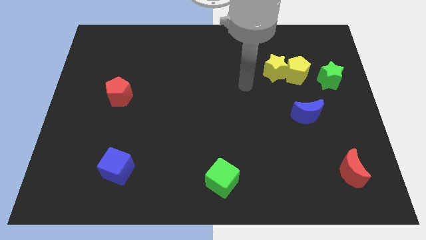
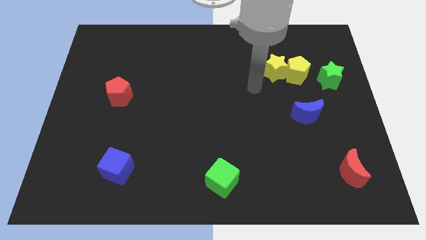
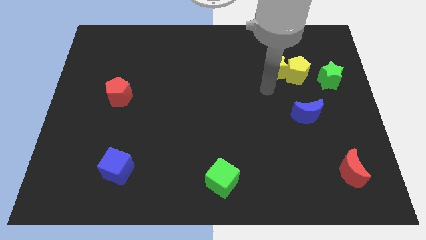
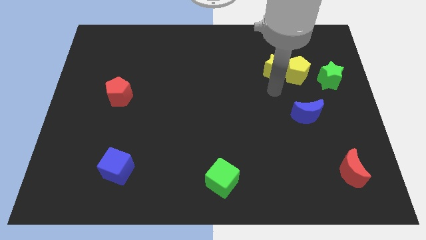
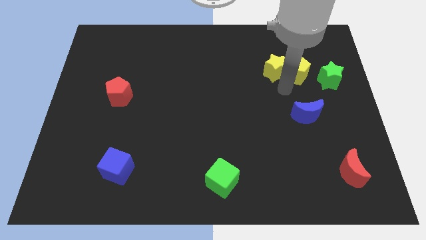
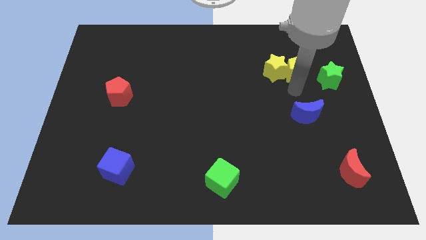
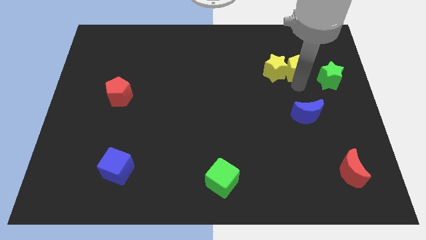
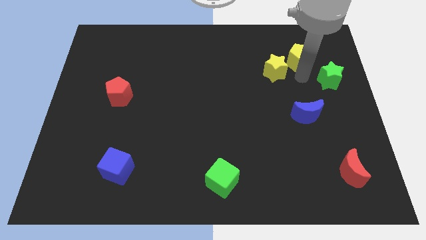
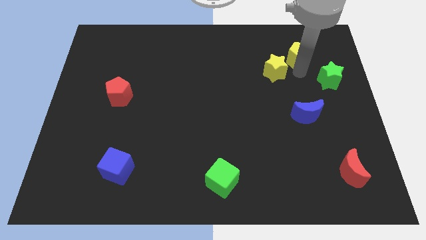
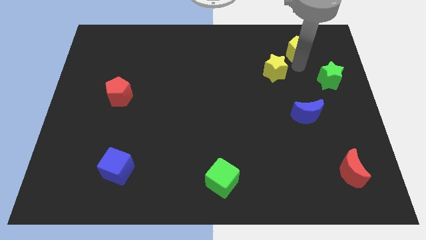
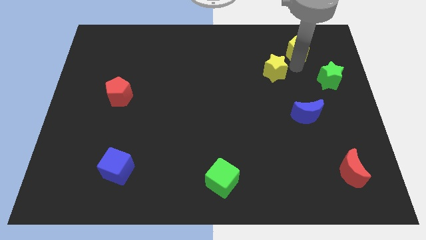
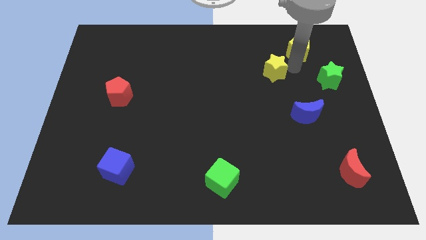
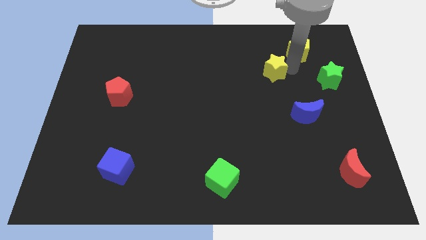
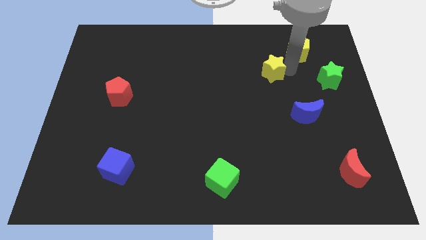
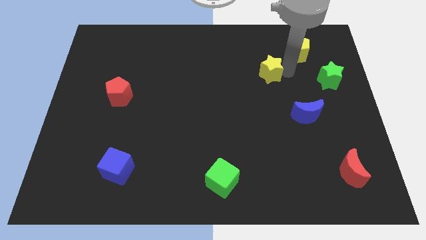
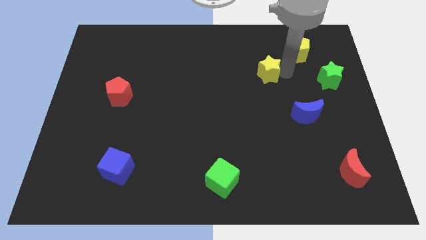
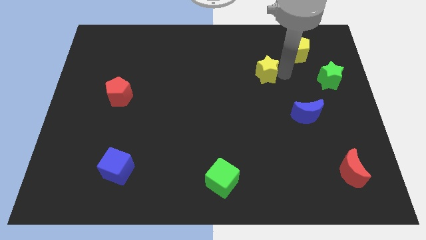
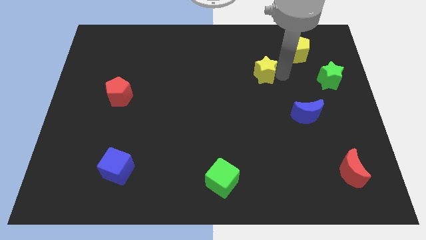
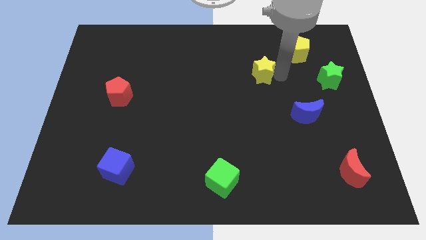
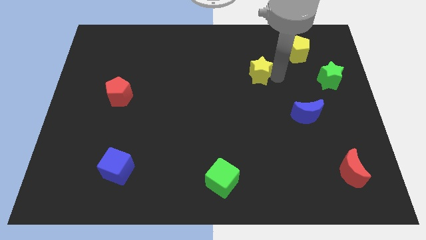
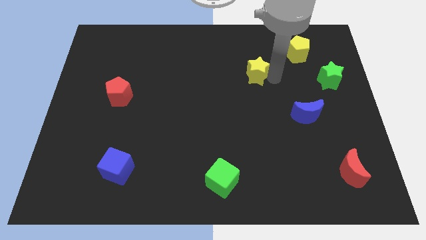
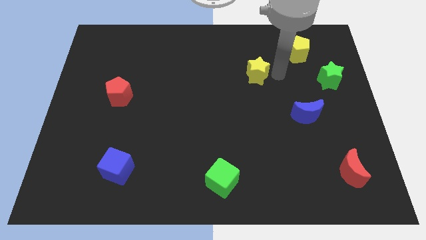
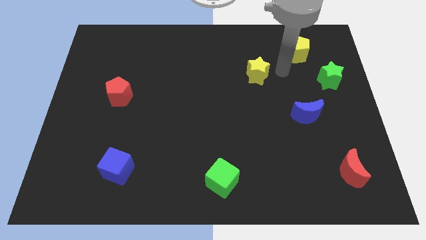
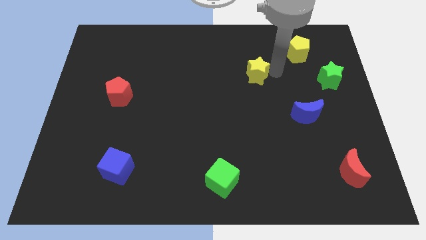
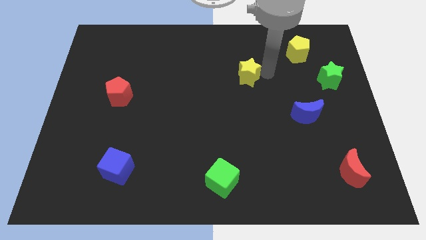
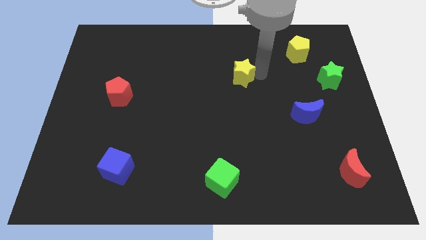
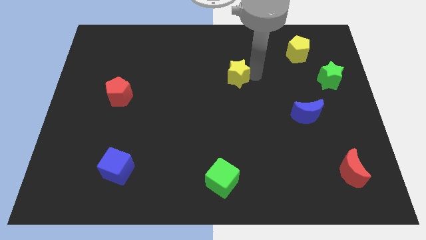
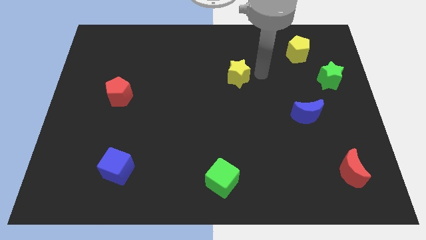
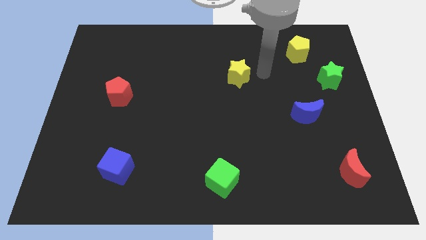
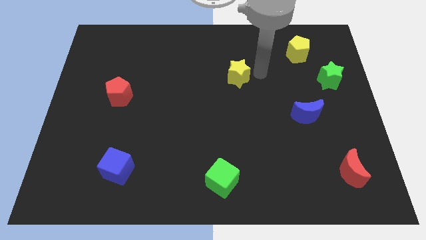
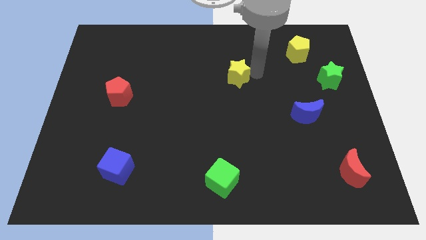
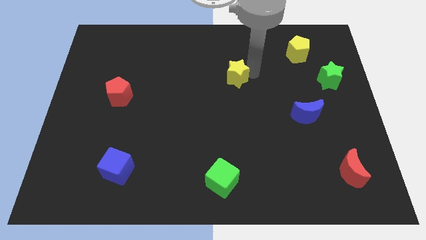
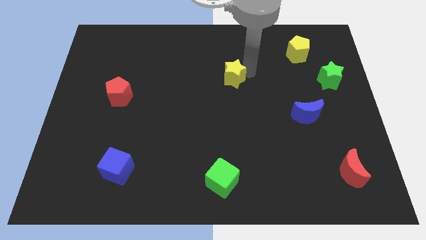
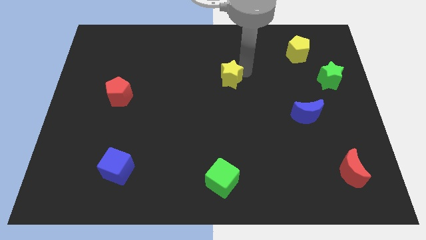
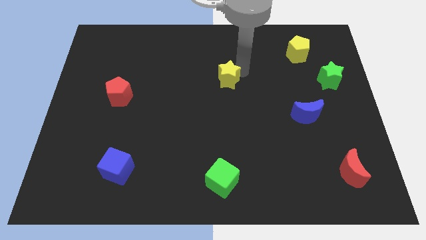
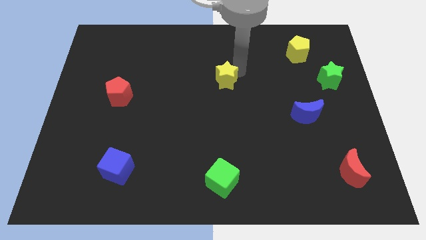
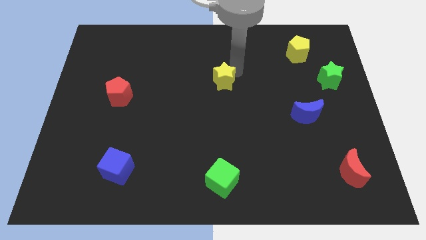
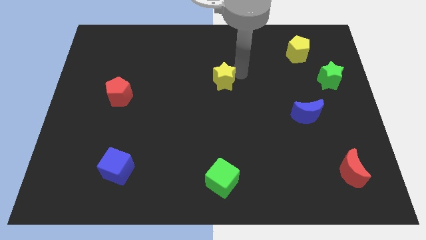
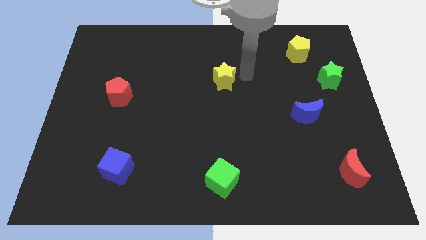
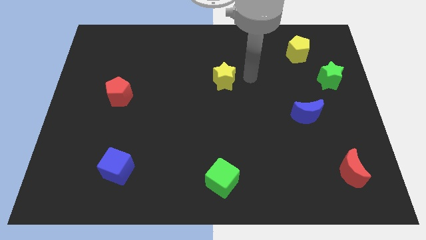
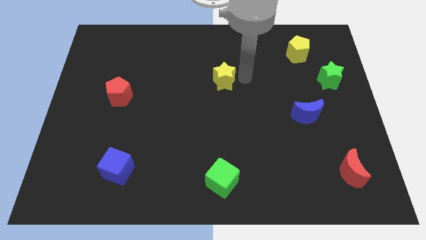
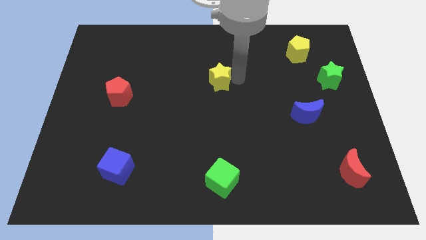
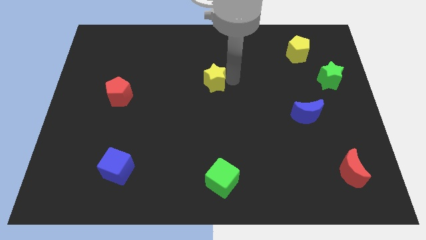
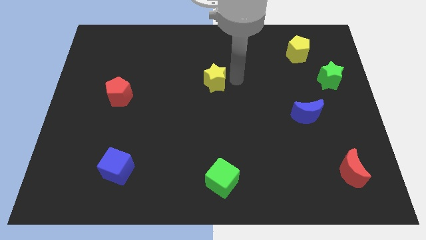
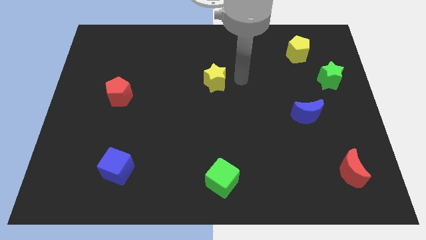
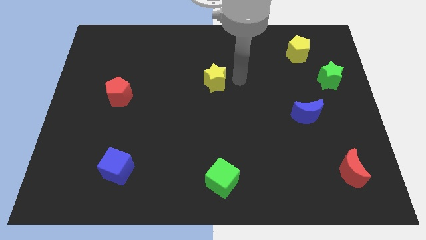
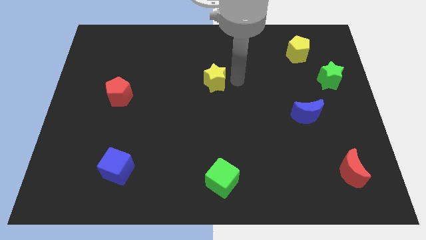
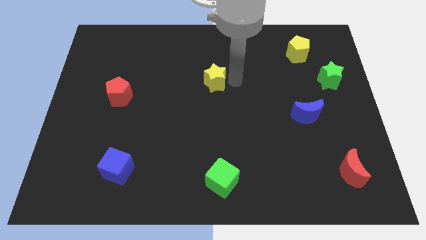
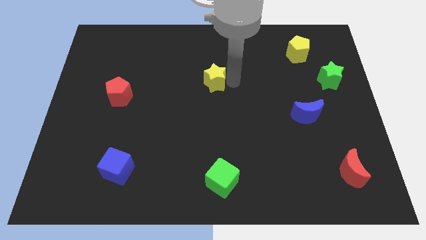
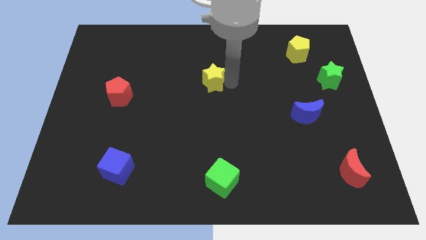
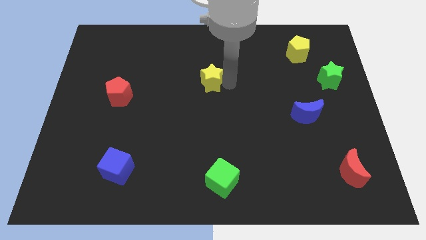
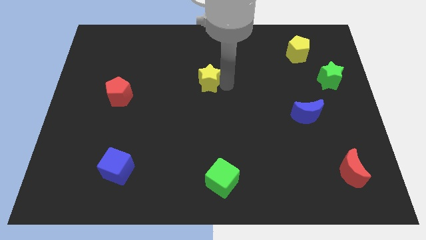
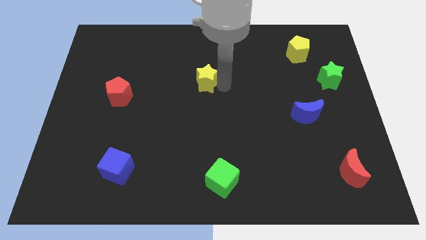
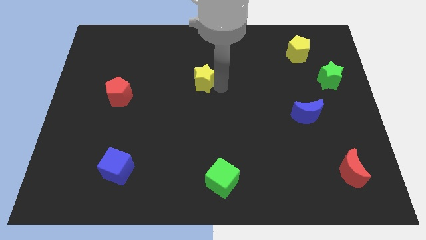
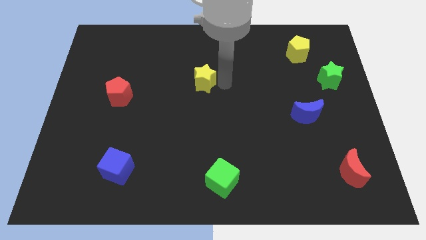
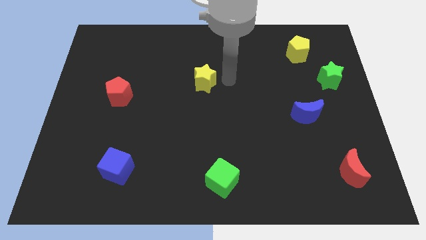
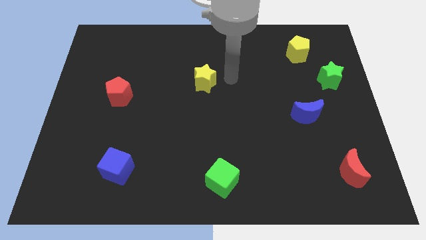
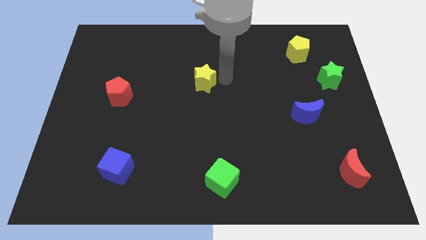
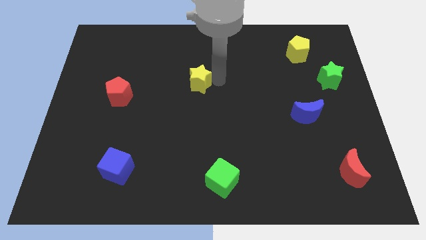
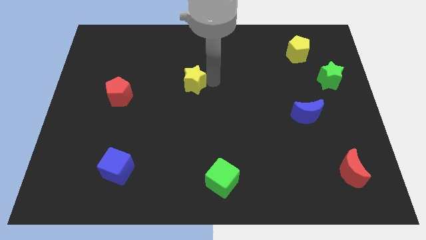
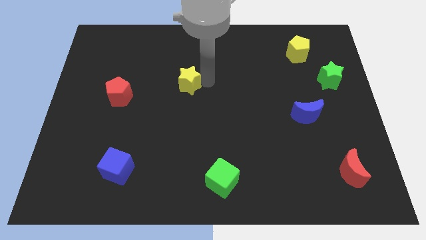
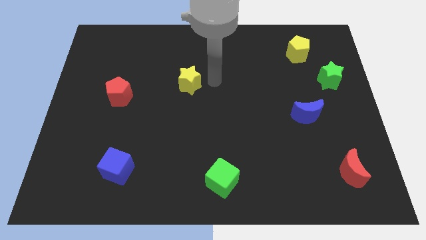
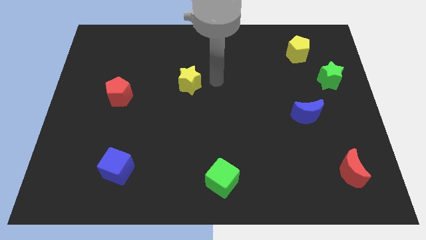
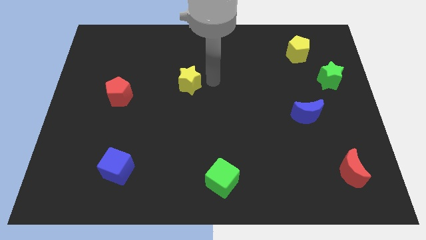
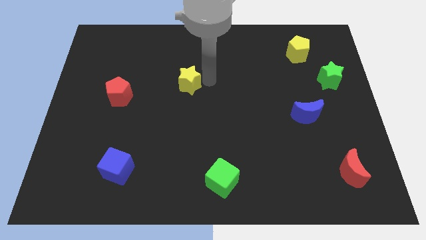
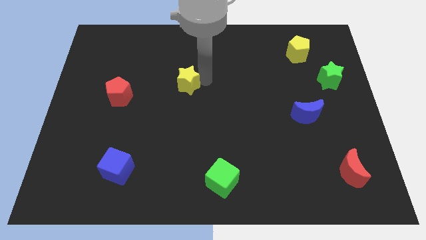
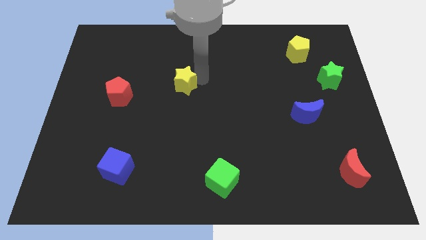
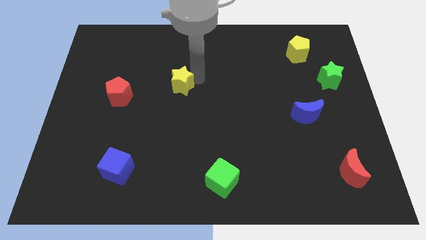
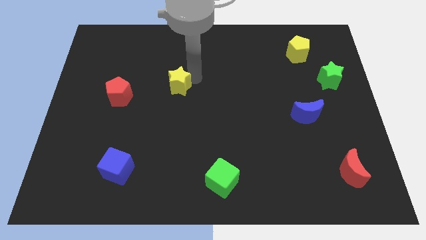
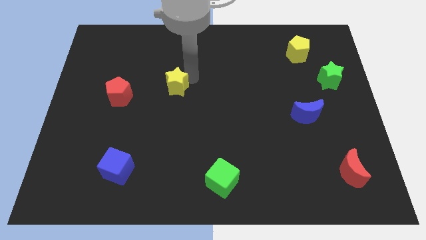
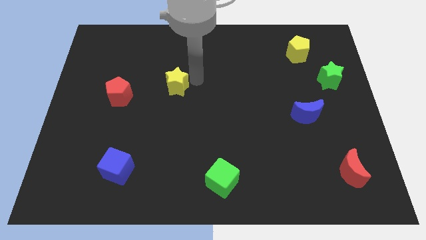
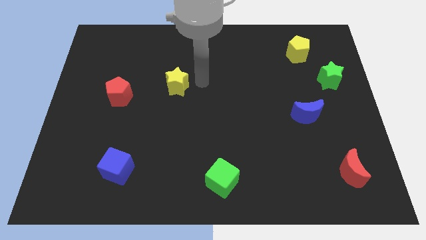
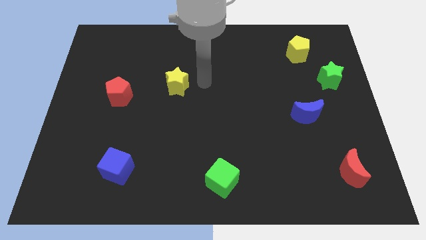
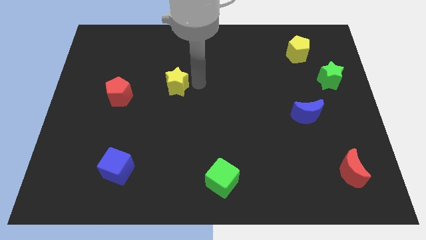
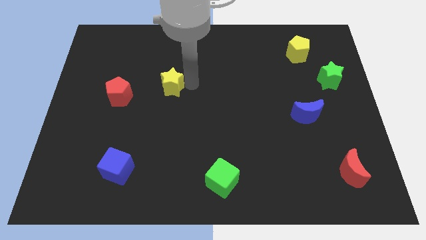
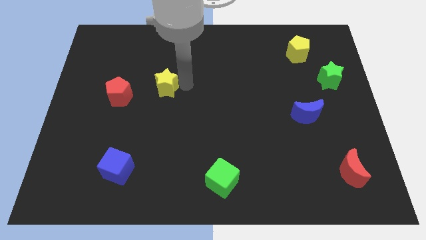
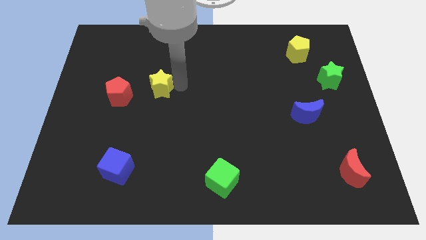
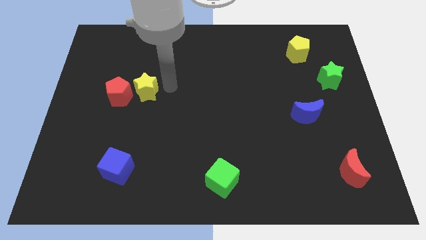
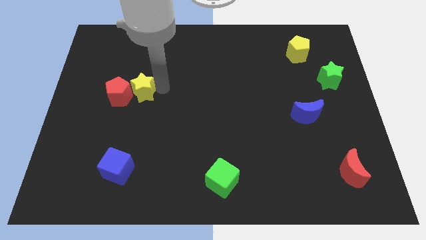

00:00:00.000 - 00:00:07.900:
move the yellow star close to the red pentagon
